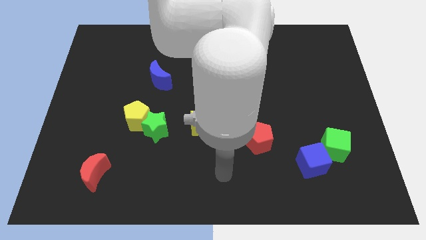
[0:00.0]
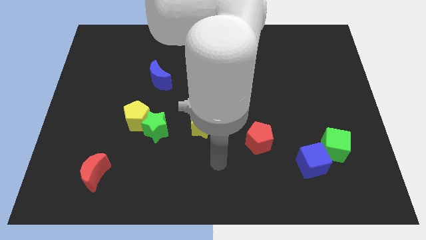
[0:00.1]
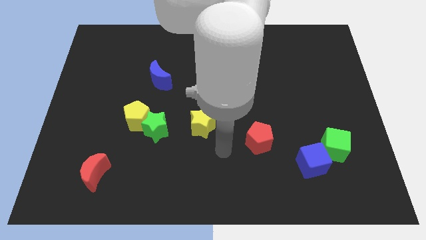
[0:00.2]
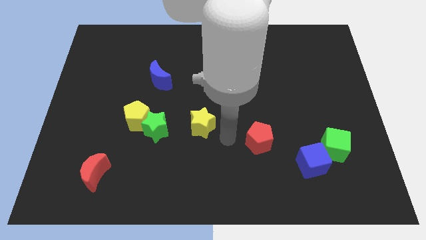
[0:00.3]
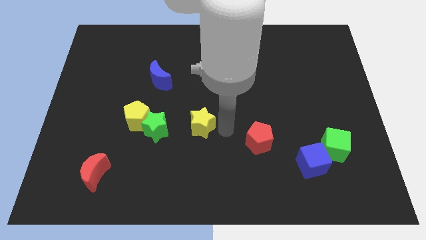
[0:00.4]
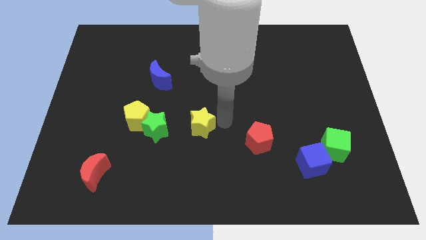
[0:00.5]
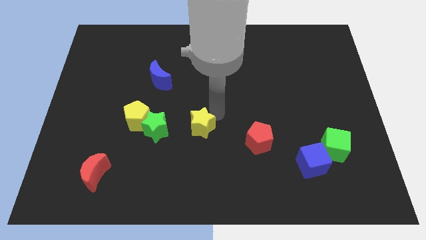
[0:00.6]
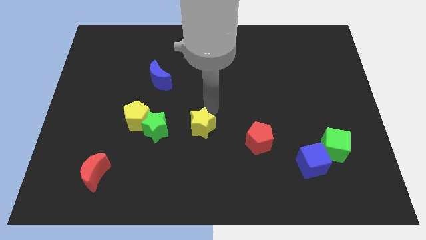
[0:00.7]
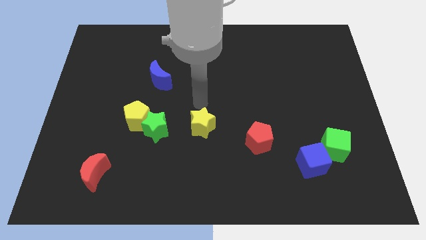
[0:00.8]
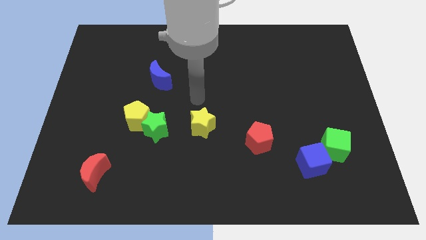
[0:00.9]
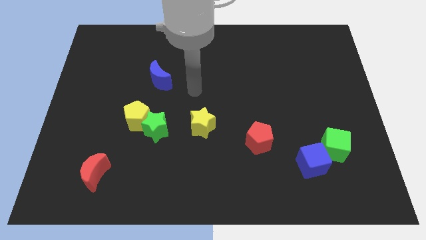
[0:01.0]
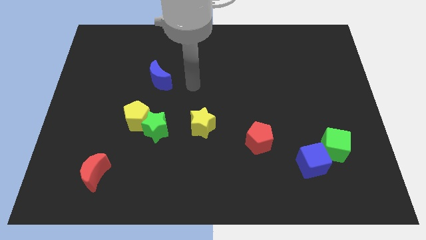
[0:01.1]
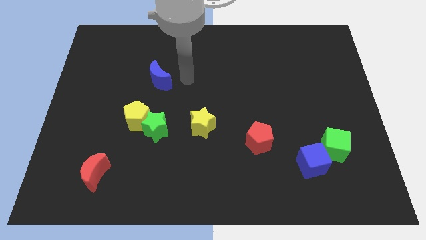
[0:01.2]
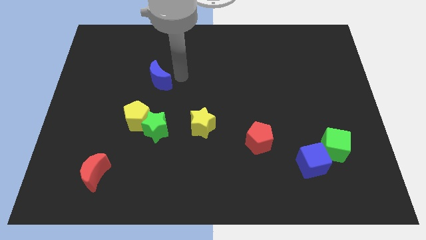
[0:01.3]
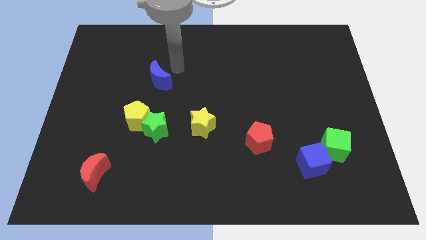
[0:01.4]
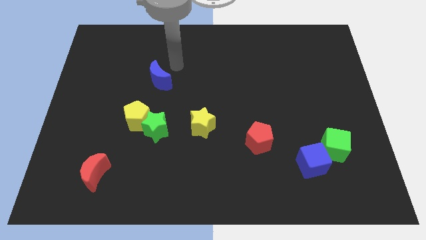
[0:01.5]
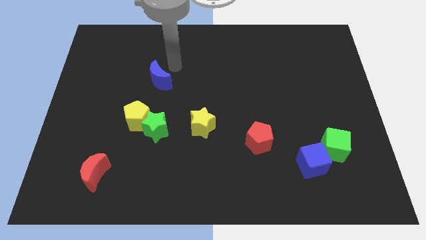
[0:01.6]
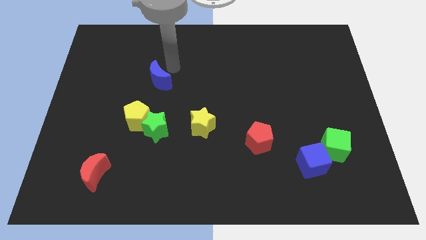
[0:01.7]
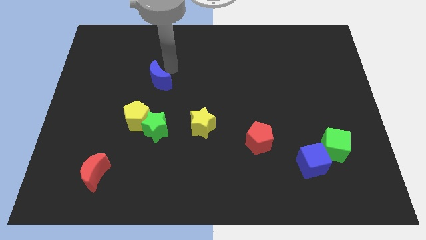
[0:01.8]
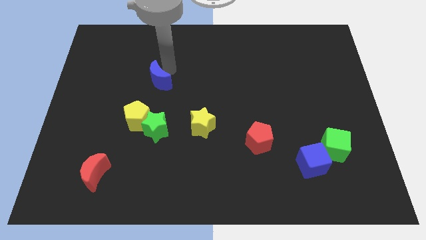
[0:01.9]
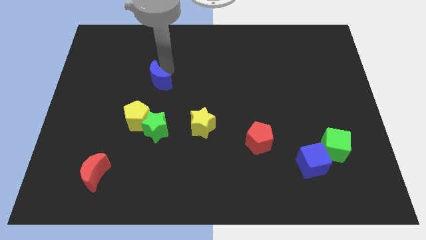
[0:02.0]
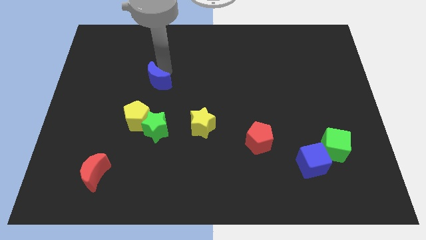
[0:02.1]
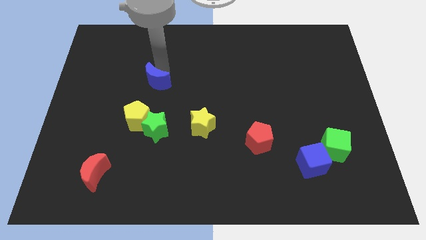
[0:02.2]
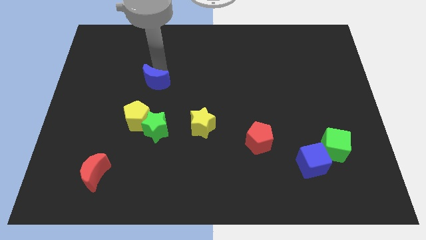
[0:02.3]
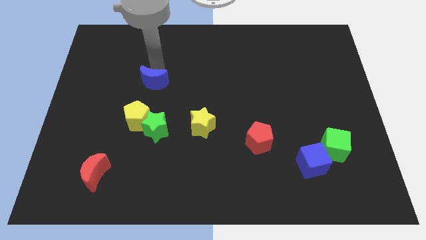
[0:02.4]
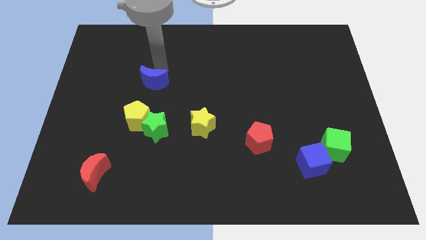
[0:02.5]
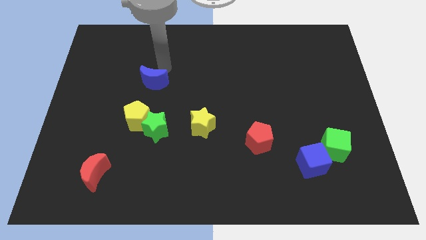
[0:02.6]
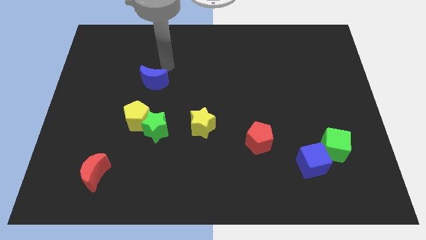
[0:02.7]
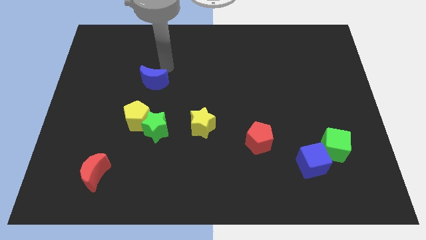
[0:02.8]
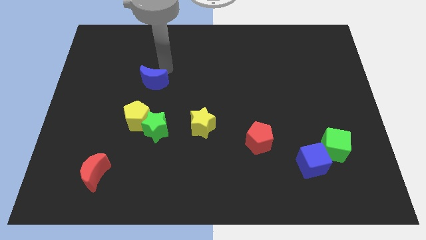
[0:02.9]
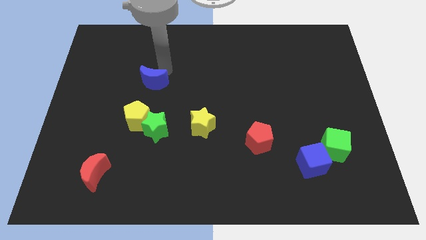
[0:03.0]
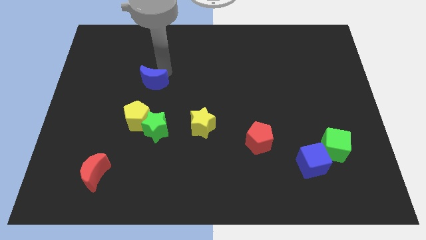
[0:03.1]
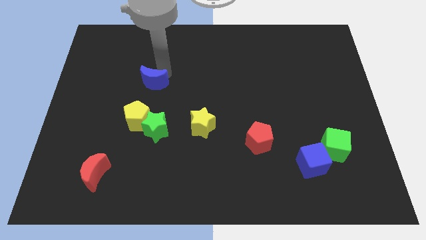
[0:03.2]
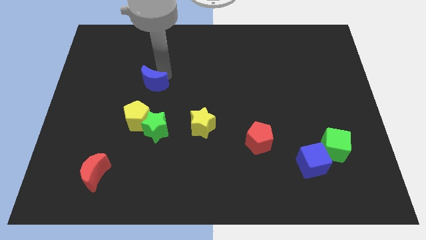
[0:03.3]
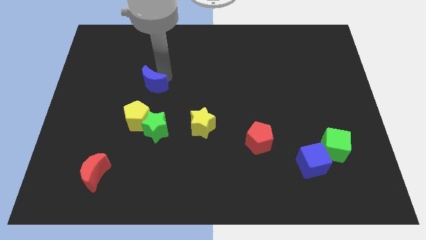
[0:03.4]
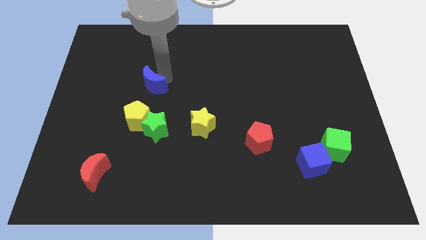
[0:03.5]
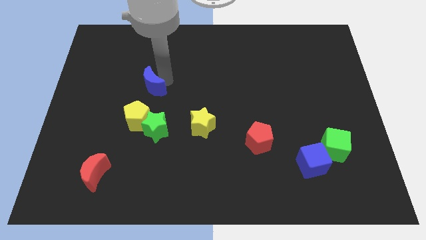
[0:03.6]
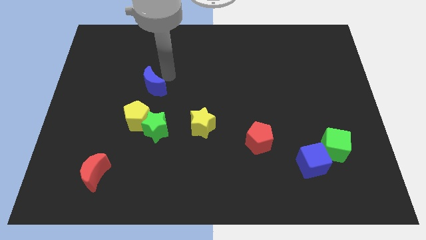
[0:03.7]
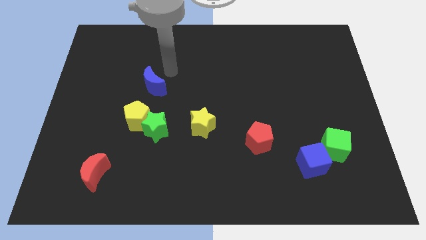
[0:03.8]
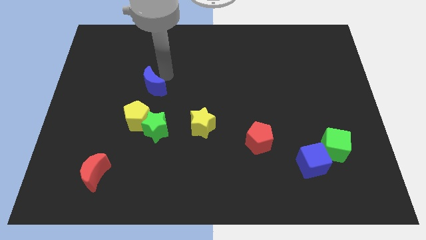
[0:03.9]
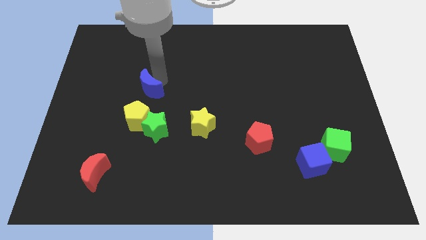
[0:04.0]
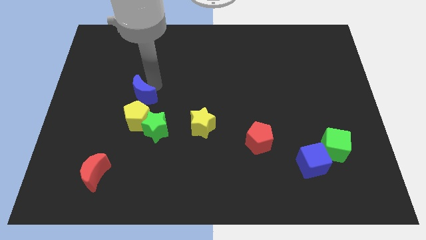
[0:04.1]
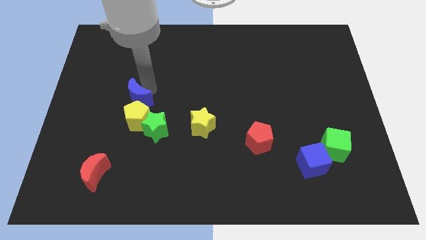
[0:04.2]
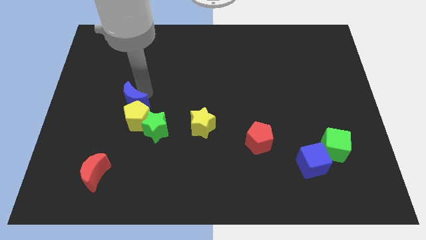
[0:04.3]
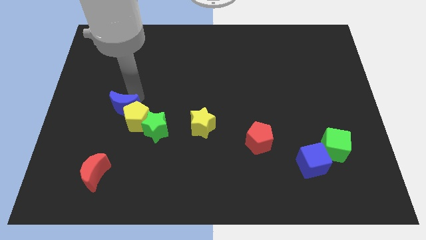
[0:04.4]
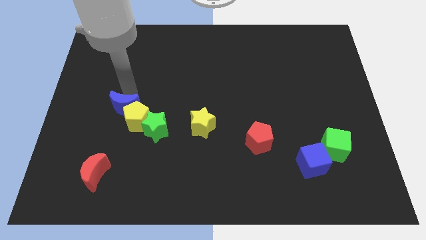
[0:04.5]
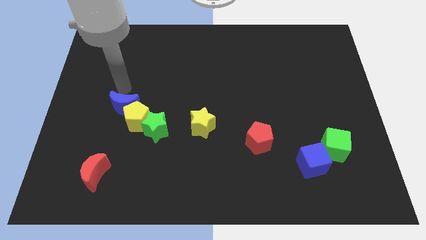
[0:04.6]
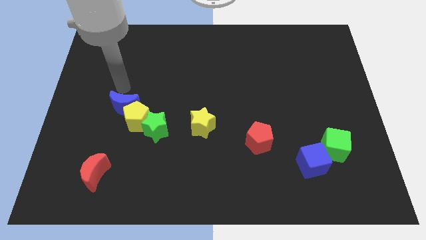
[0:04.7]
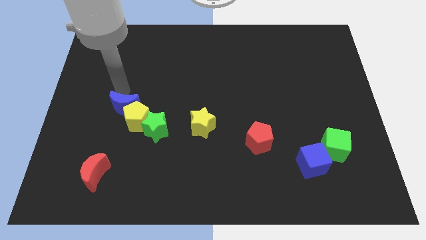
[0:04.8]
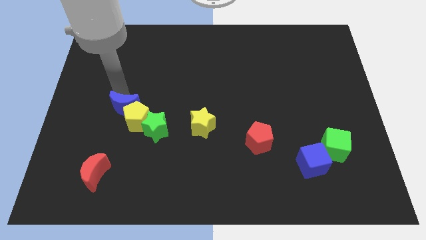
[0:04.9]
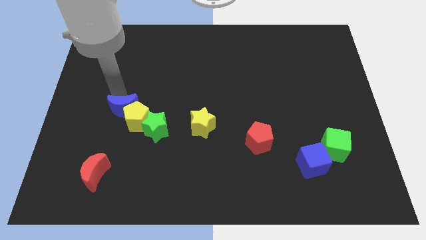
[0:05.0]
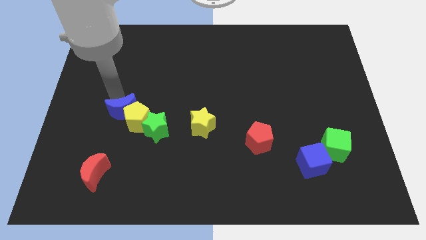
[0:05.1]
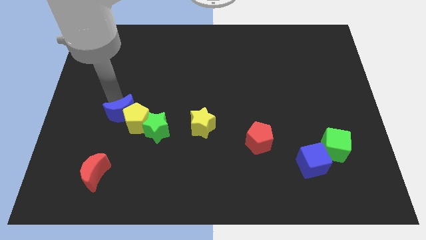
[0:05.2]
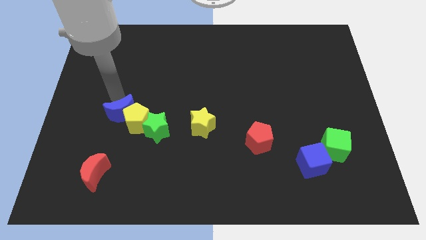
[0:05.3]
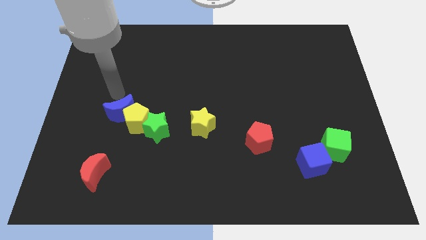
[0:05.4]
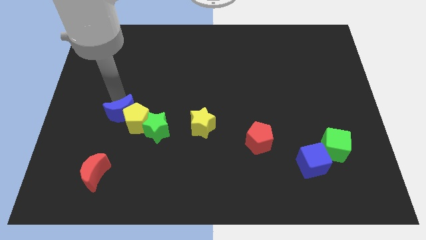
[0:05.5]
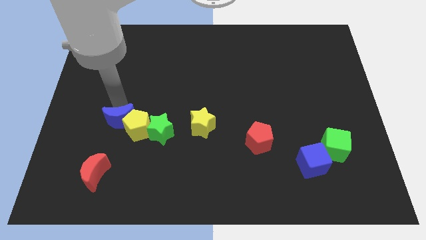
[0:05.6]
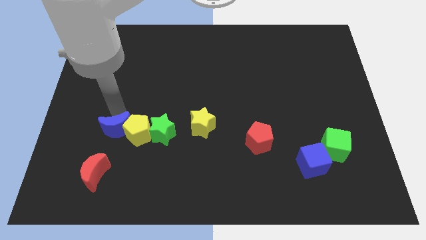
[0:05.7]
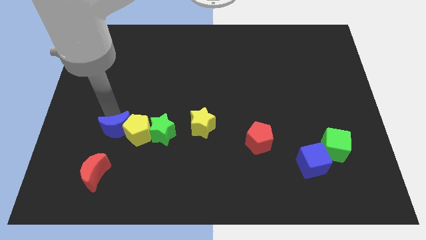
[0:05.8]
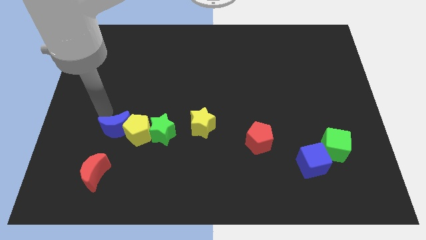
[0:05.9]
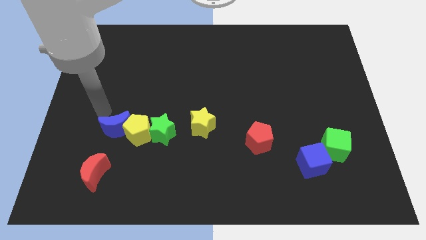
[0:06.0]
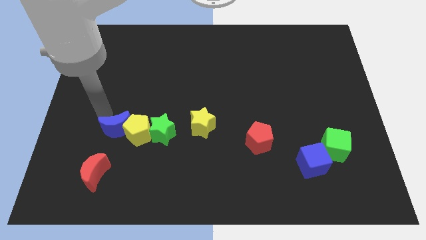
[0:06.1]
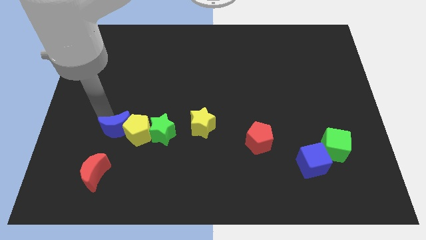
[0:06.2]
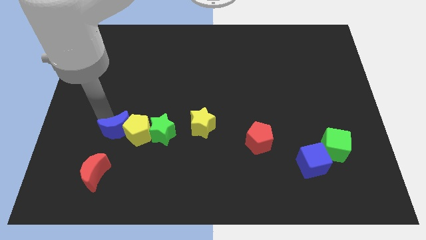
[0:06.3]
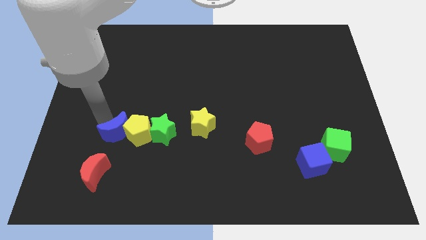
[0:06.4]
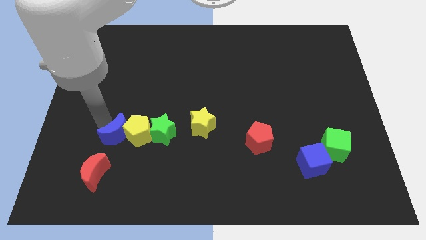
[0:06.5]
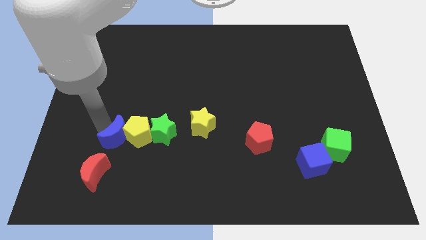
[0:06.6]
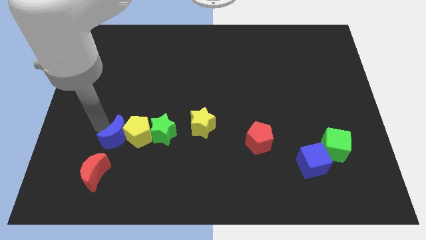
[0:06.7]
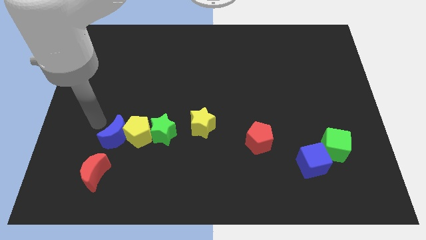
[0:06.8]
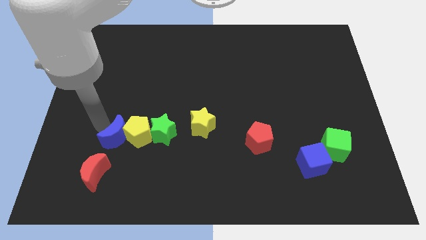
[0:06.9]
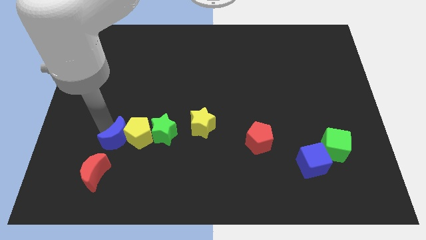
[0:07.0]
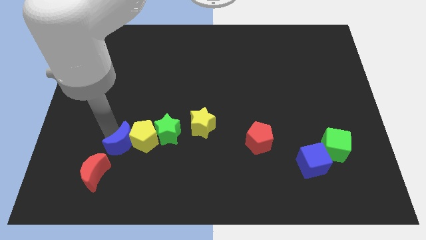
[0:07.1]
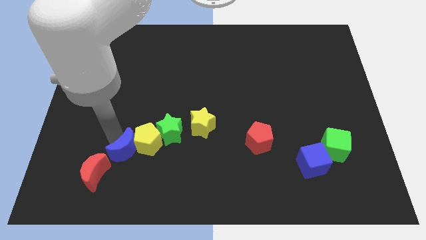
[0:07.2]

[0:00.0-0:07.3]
slide the blue moon to the bottom left of the green star

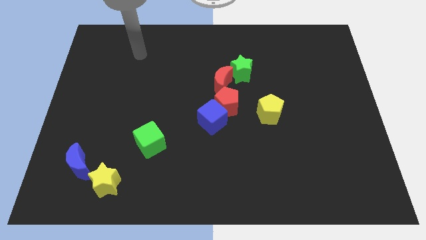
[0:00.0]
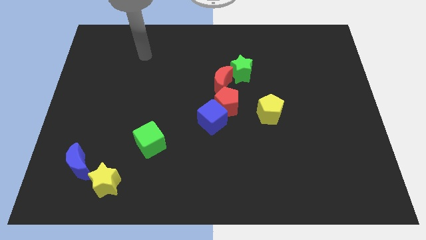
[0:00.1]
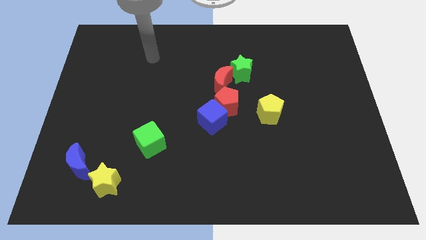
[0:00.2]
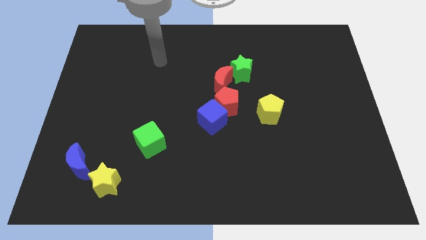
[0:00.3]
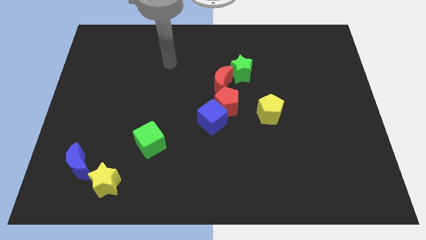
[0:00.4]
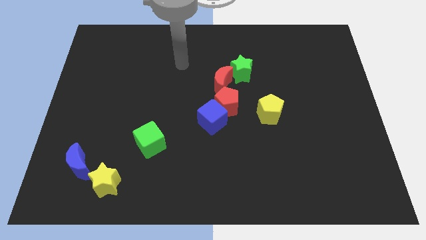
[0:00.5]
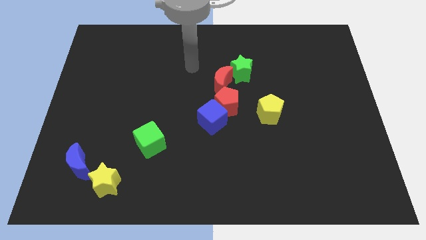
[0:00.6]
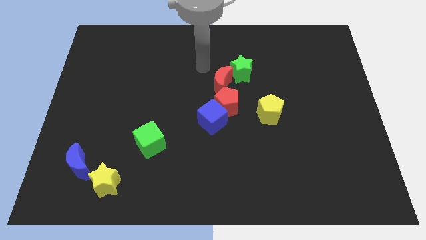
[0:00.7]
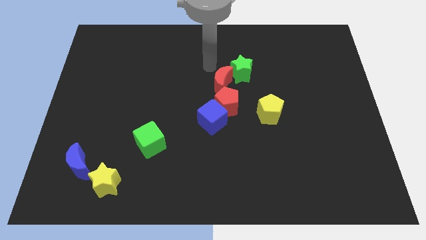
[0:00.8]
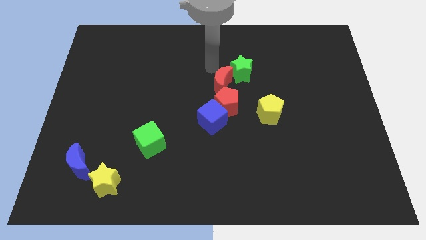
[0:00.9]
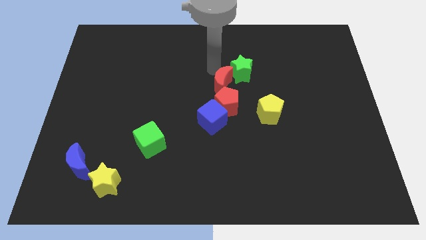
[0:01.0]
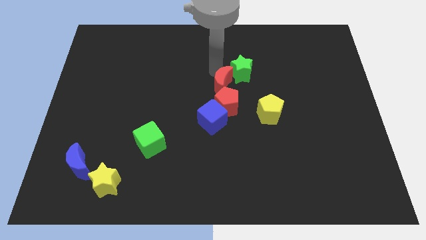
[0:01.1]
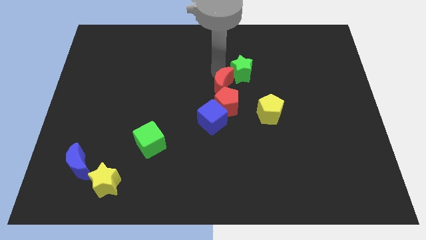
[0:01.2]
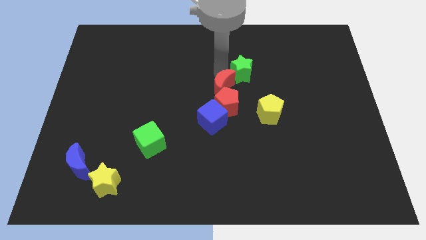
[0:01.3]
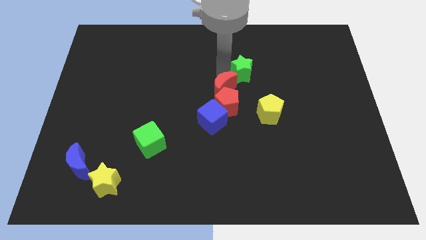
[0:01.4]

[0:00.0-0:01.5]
push the red moon to the top right side of the blue cube
